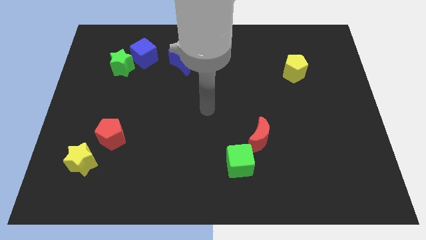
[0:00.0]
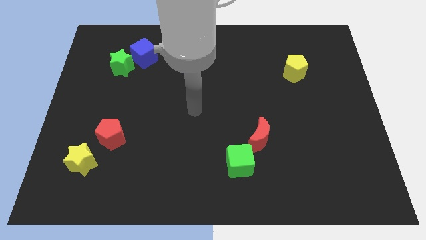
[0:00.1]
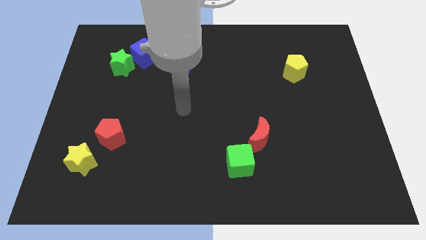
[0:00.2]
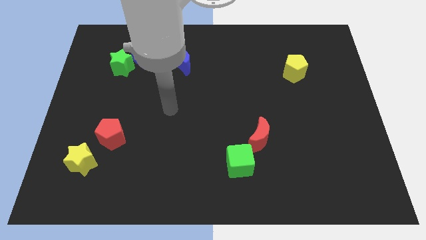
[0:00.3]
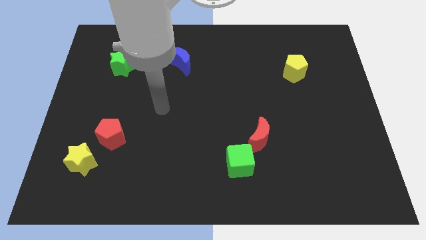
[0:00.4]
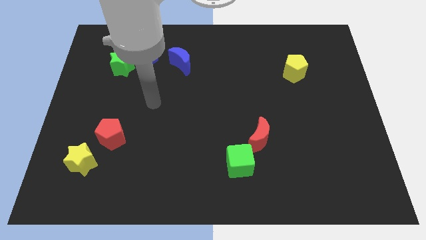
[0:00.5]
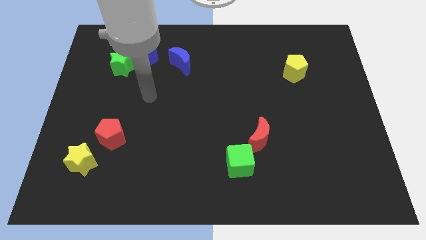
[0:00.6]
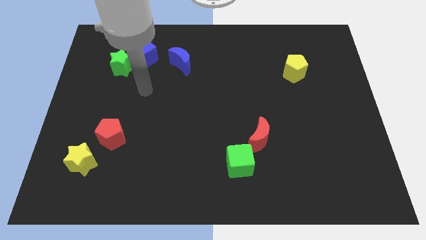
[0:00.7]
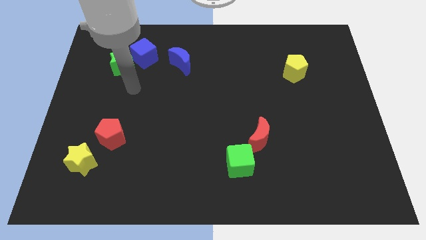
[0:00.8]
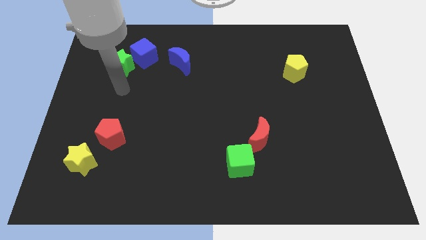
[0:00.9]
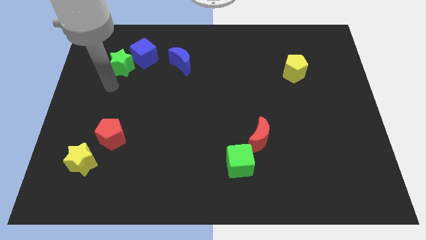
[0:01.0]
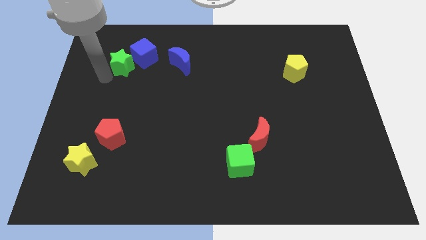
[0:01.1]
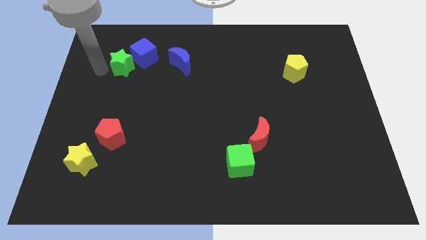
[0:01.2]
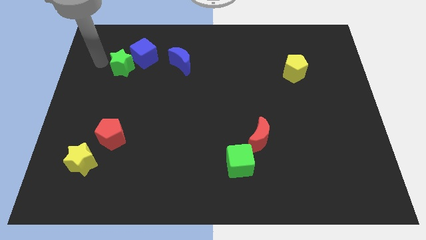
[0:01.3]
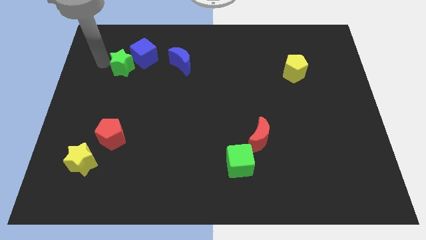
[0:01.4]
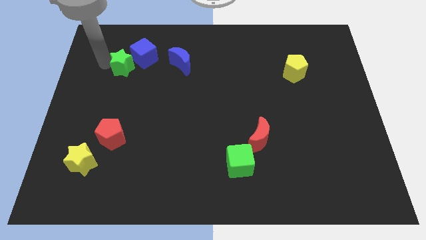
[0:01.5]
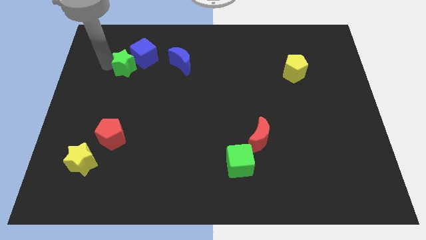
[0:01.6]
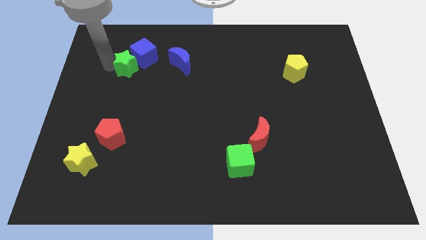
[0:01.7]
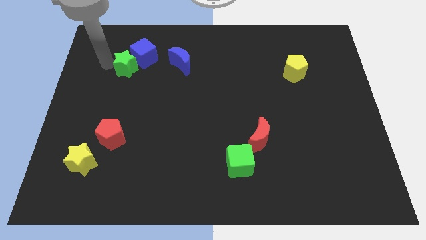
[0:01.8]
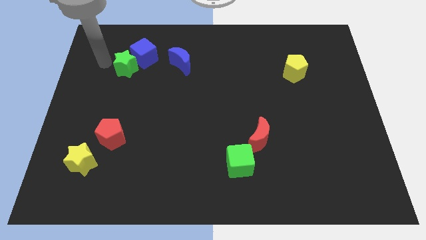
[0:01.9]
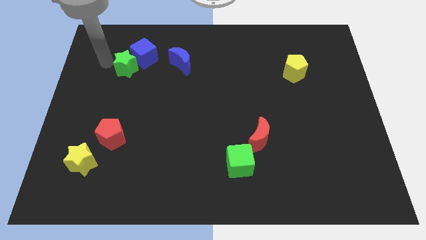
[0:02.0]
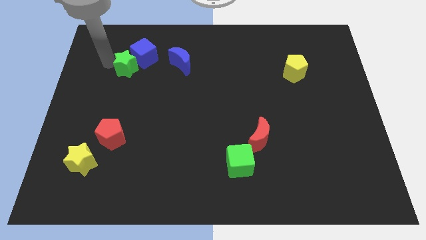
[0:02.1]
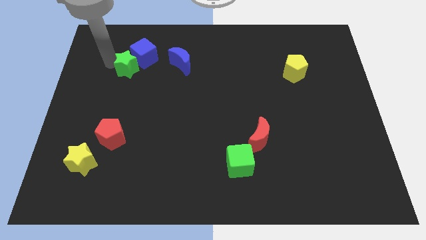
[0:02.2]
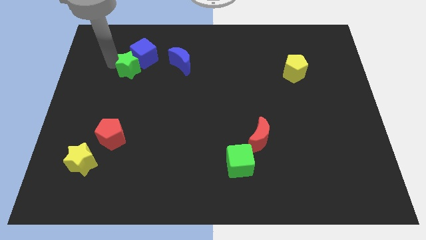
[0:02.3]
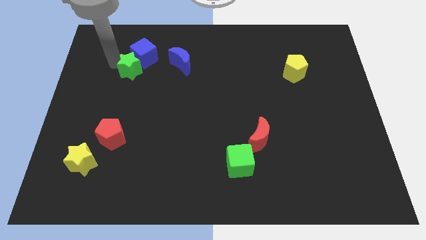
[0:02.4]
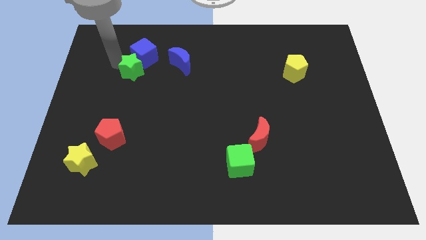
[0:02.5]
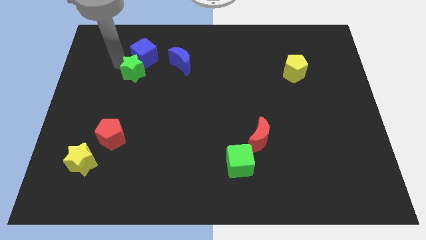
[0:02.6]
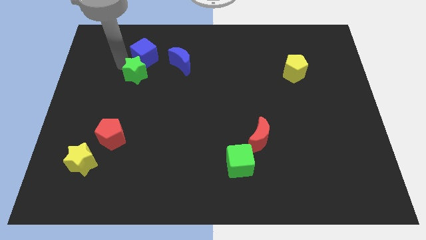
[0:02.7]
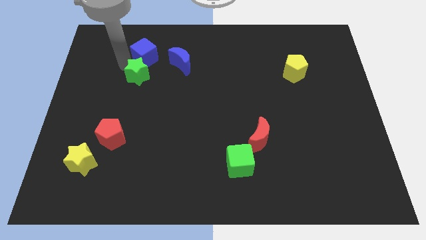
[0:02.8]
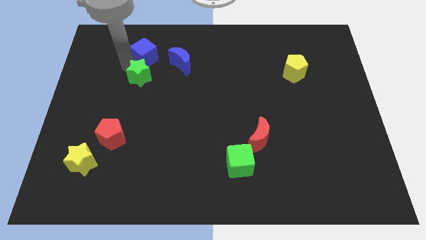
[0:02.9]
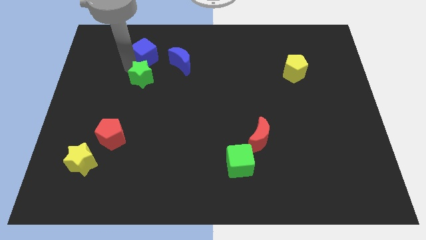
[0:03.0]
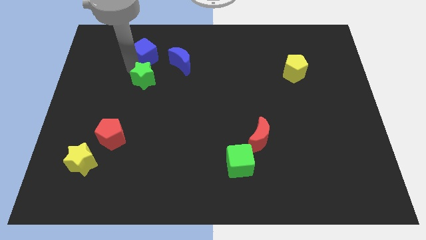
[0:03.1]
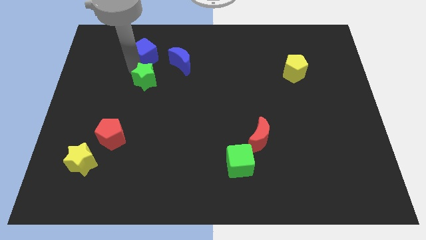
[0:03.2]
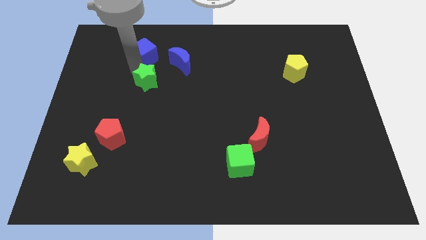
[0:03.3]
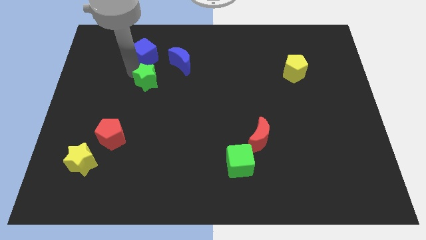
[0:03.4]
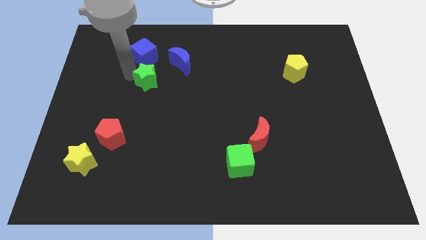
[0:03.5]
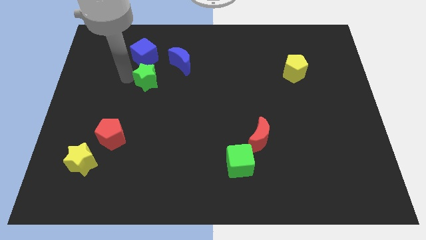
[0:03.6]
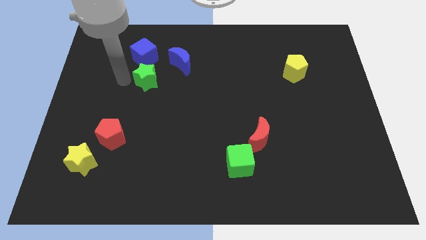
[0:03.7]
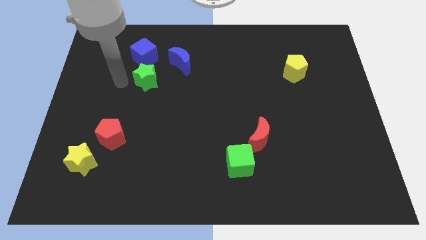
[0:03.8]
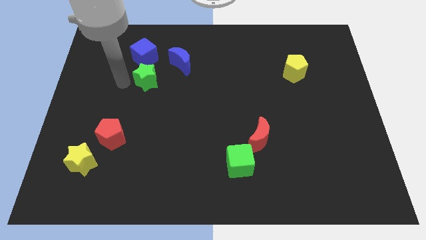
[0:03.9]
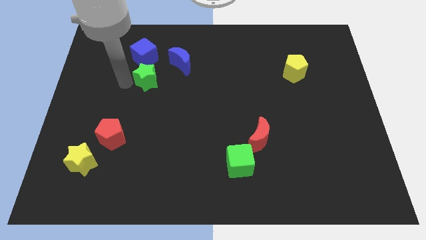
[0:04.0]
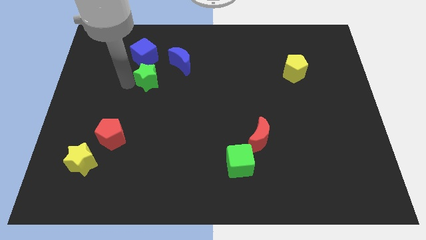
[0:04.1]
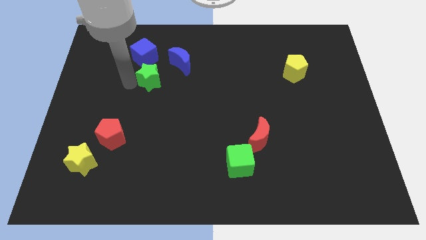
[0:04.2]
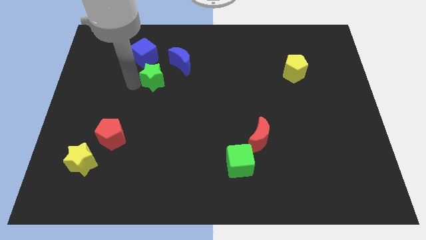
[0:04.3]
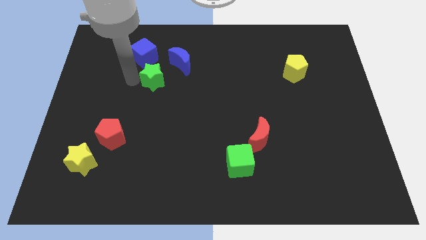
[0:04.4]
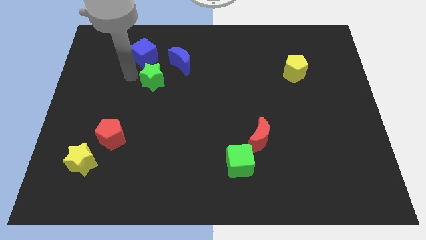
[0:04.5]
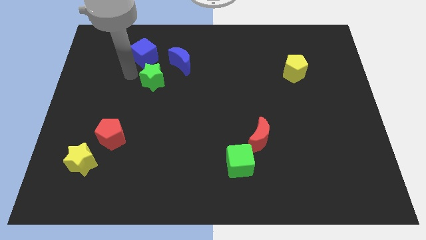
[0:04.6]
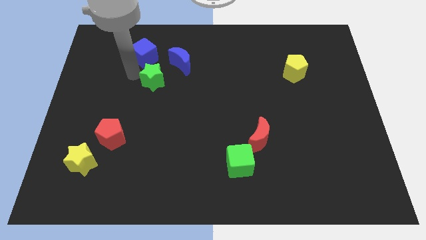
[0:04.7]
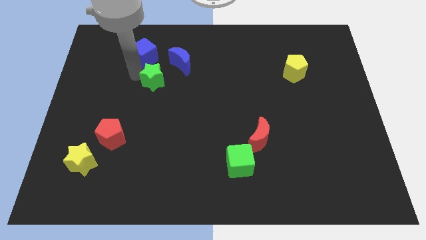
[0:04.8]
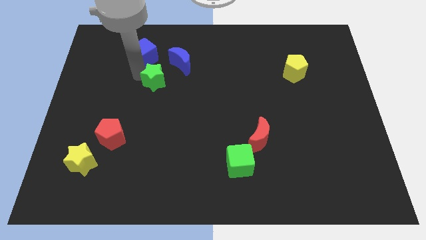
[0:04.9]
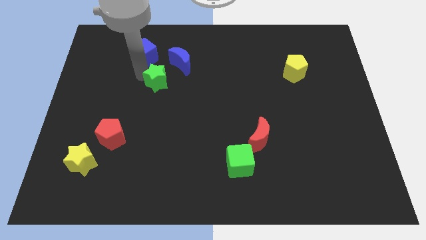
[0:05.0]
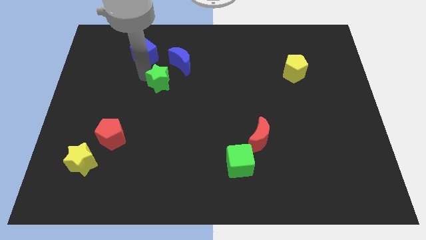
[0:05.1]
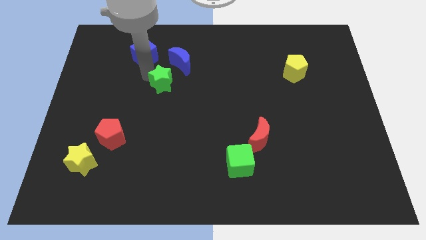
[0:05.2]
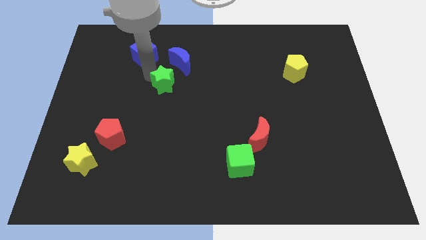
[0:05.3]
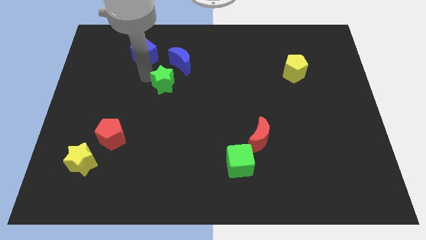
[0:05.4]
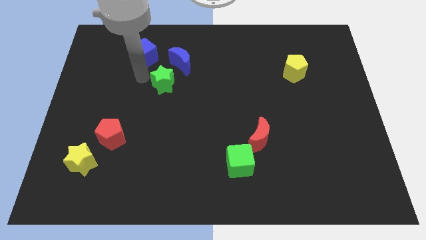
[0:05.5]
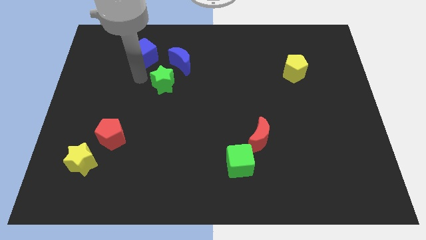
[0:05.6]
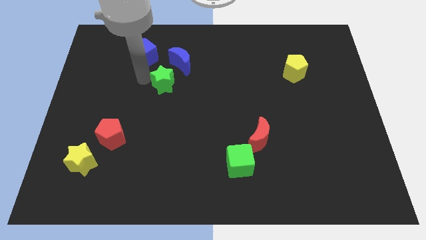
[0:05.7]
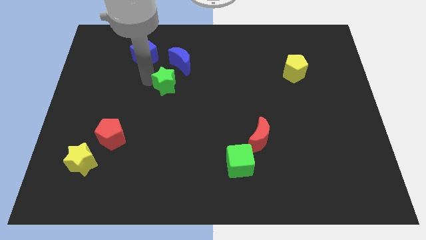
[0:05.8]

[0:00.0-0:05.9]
push the green star to the middle
